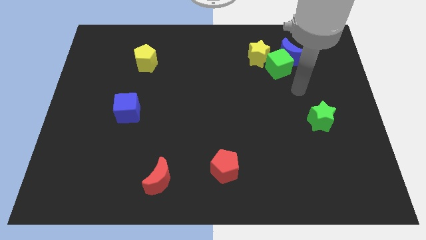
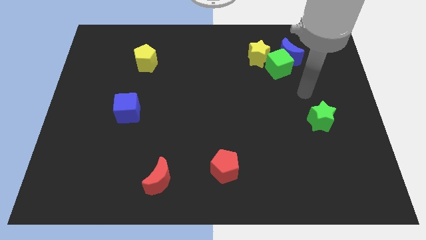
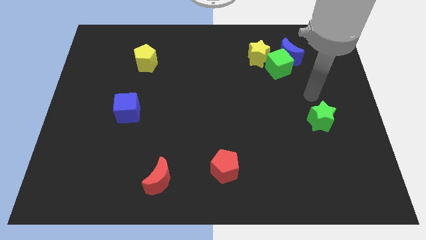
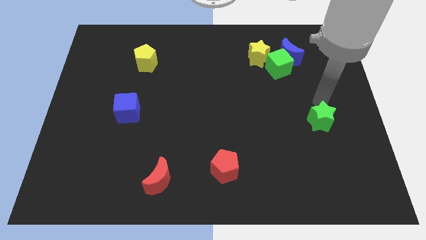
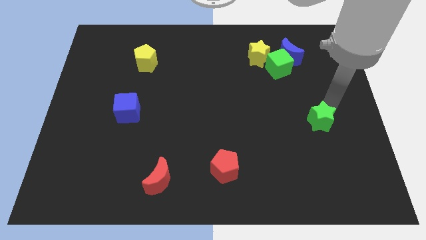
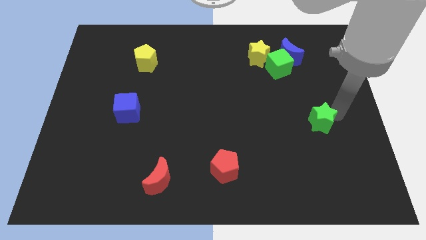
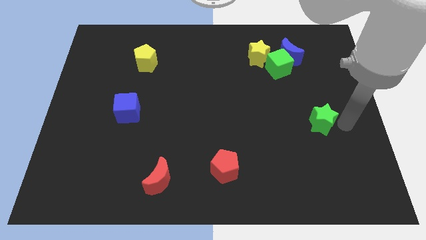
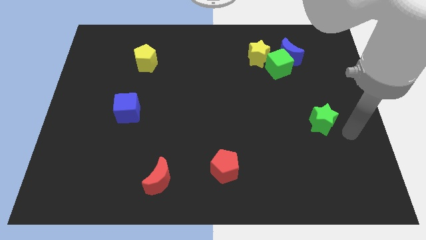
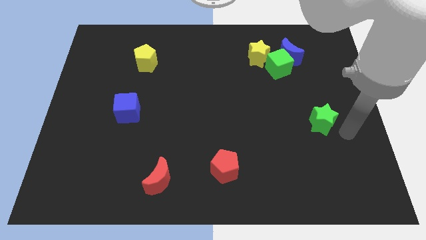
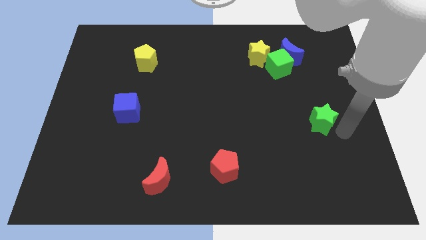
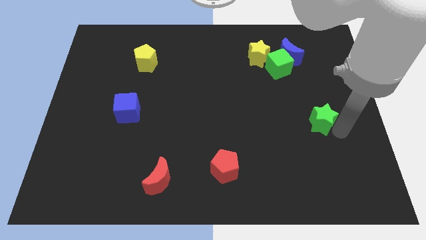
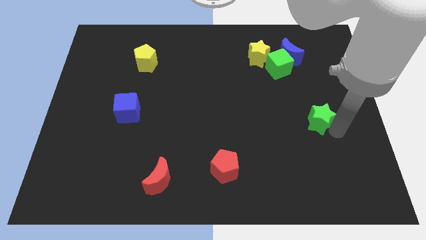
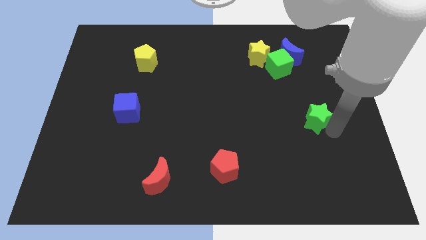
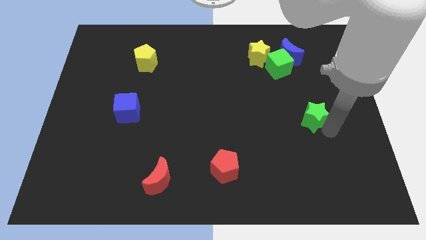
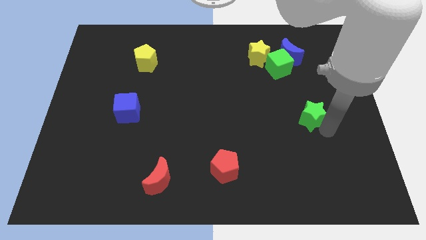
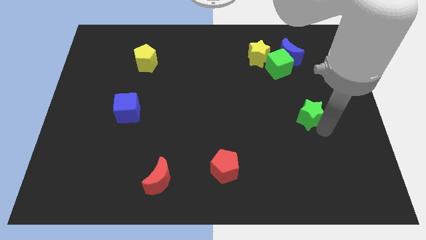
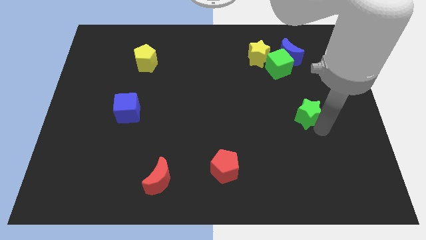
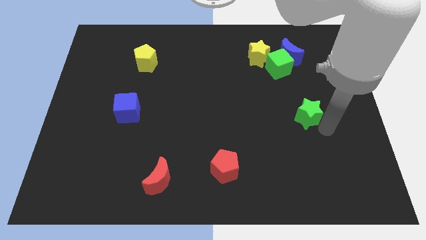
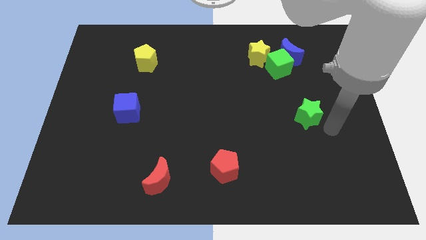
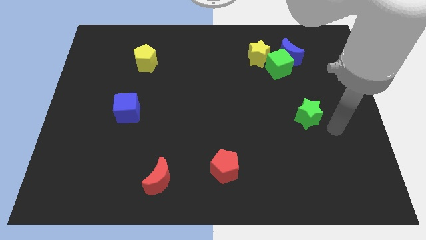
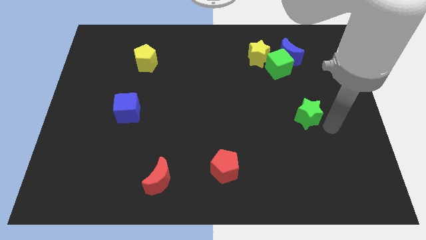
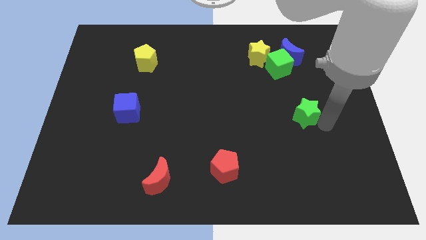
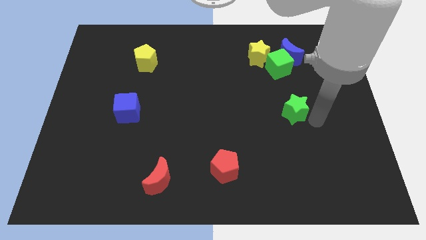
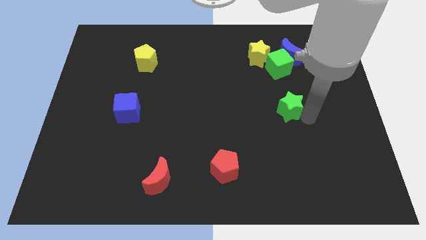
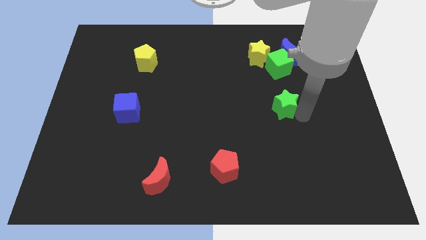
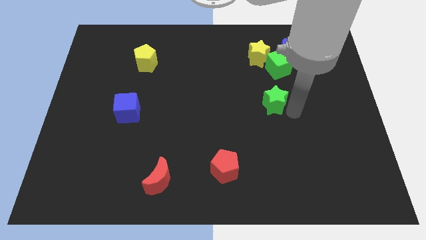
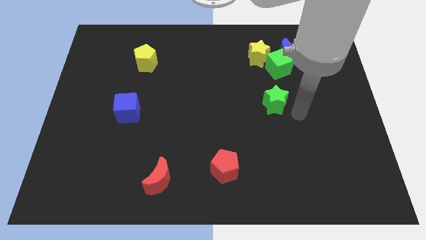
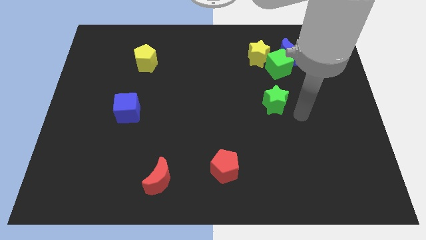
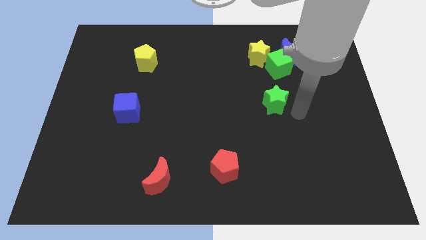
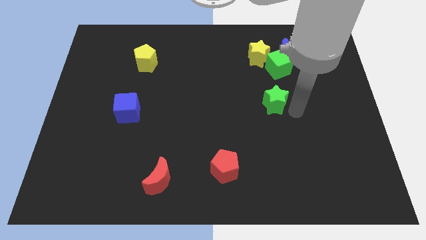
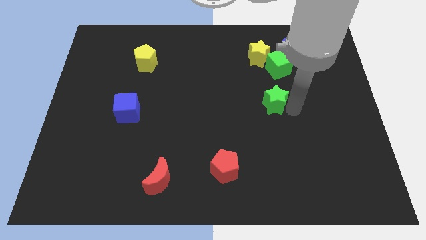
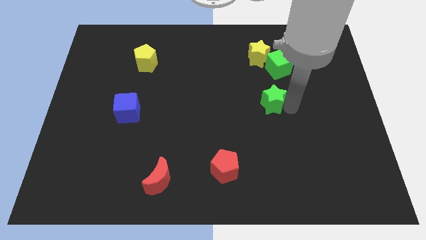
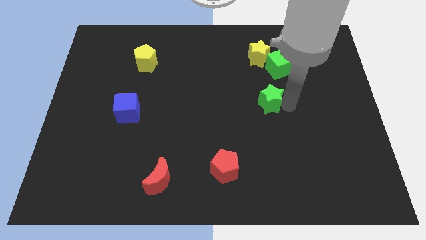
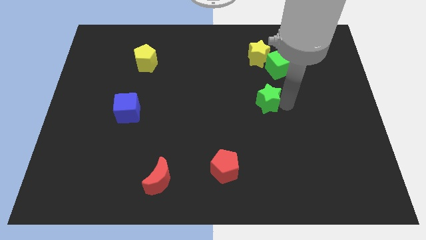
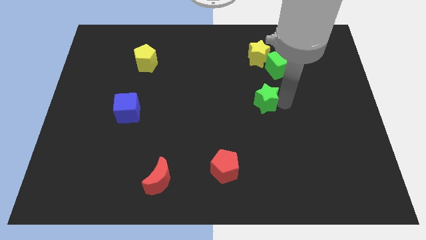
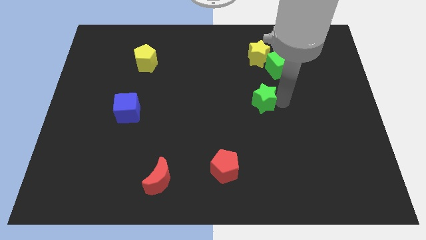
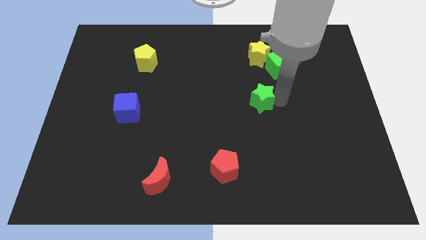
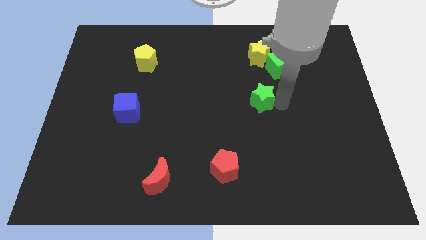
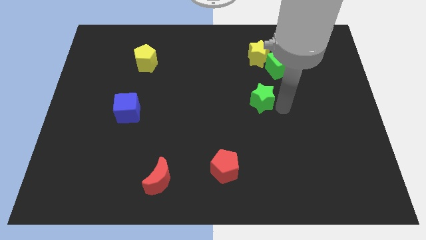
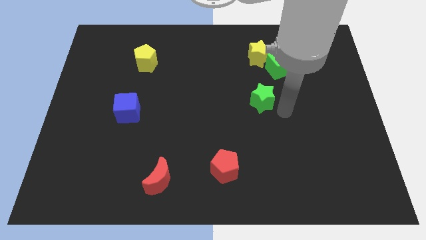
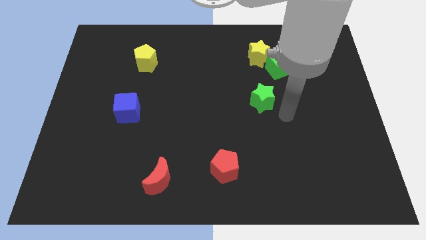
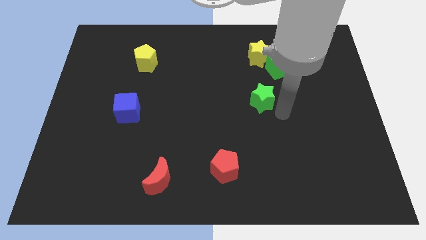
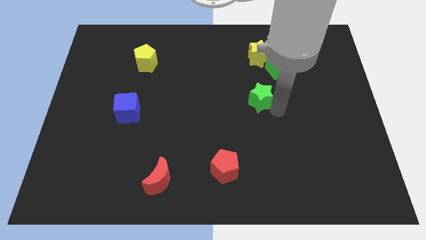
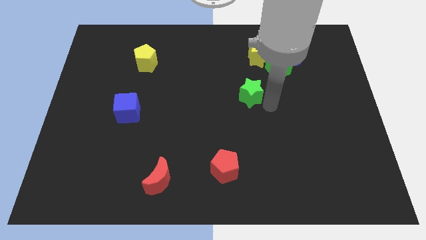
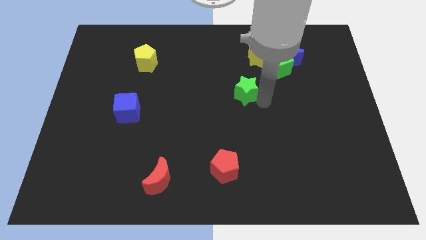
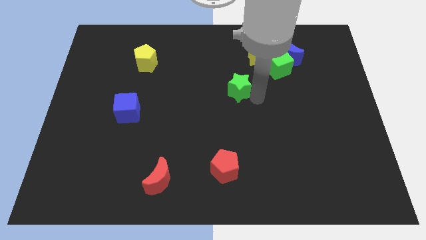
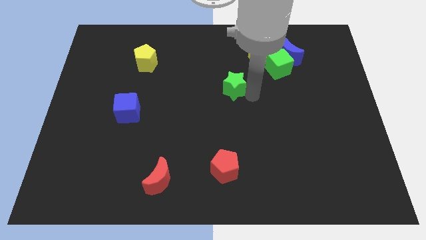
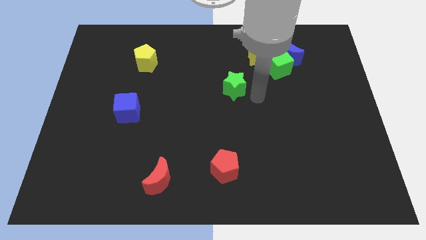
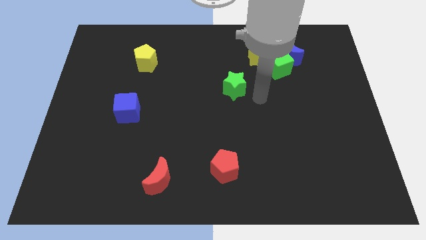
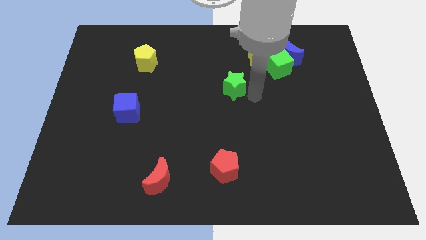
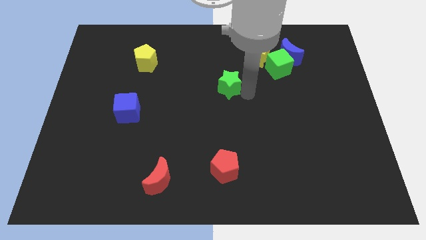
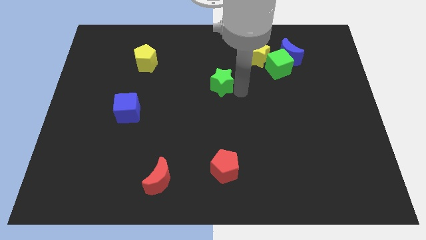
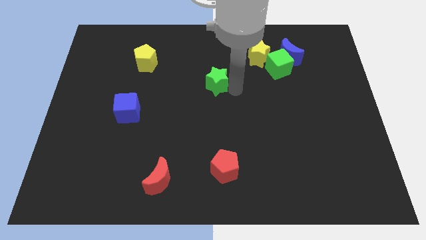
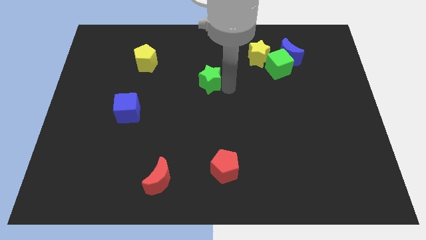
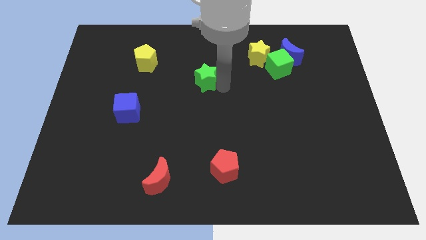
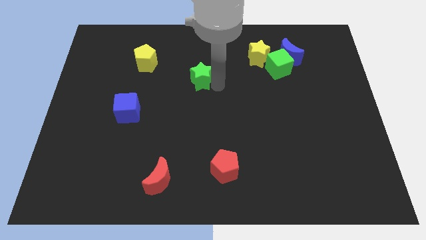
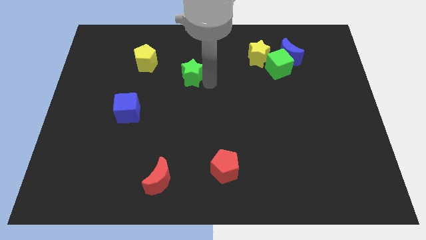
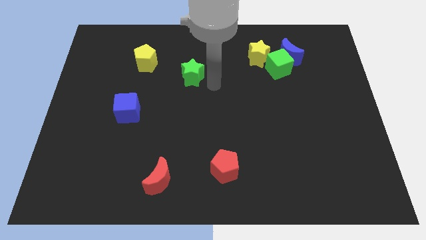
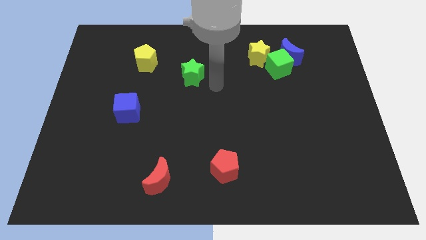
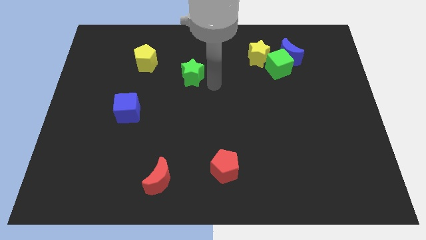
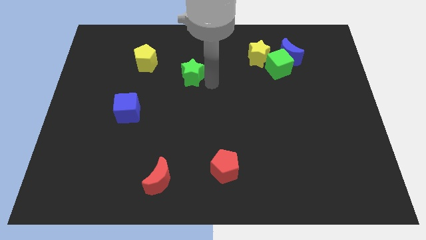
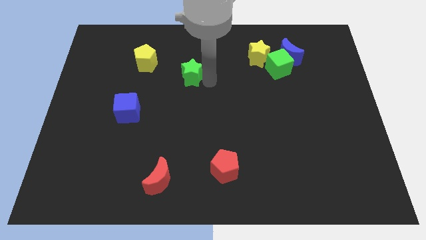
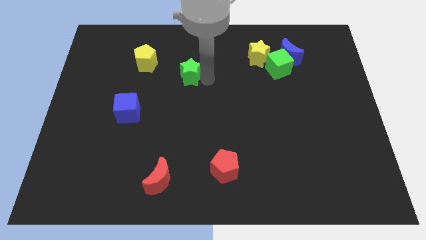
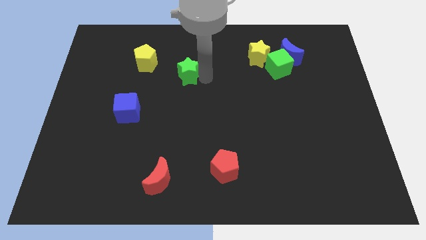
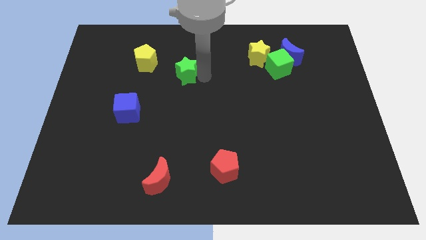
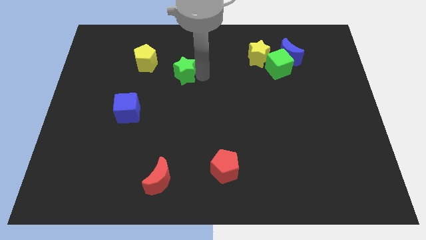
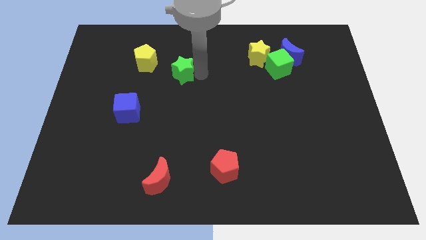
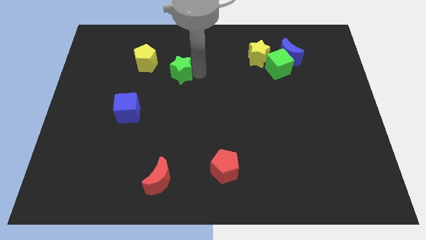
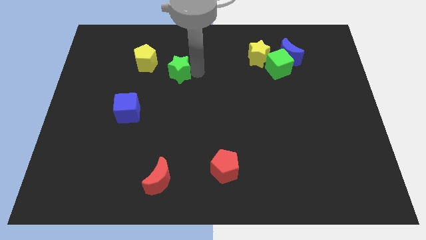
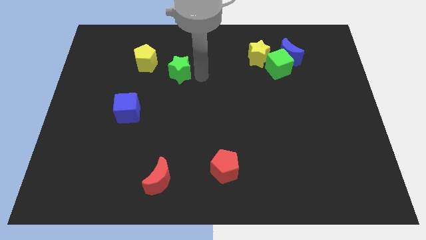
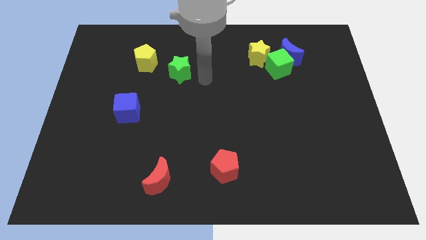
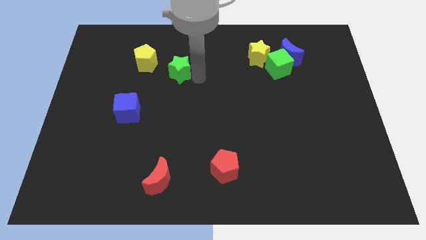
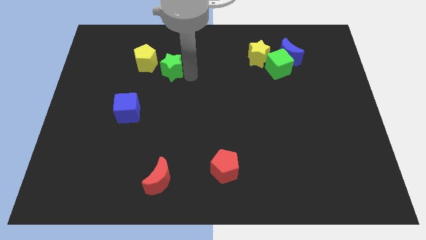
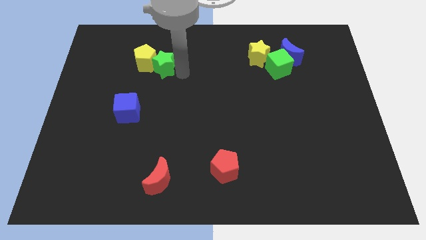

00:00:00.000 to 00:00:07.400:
push the green star next to the yellow pentagon
